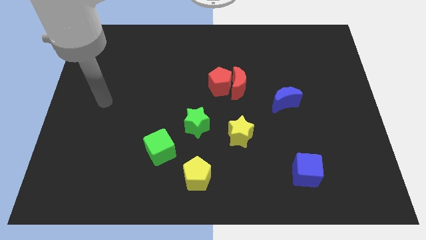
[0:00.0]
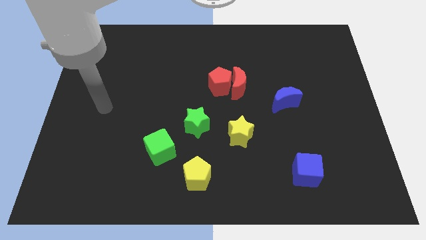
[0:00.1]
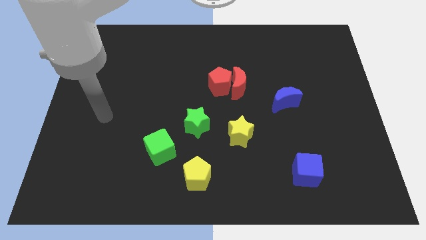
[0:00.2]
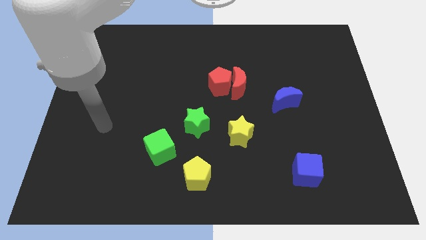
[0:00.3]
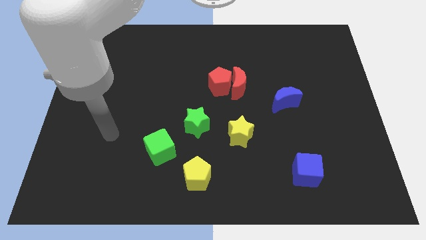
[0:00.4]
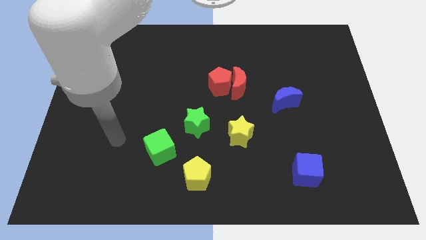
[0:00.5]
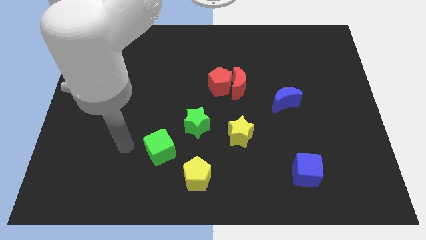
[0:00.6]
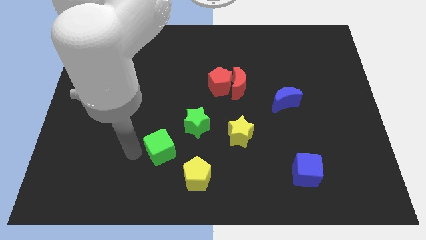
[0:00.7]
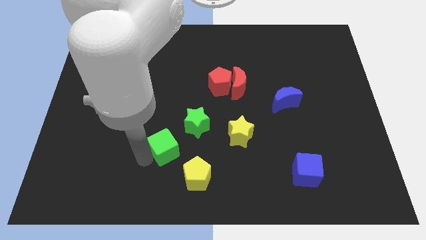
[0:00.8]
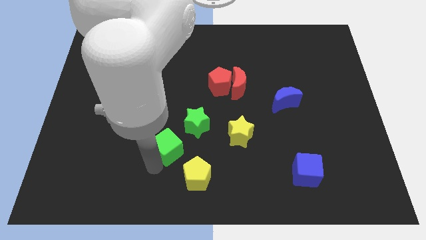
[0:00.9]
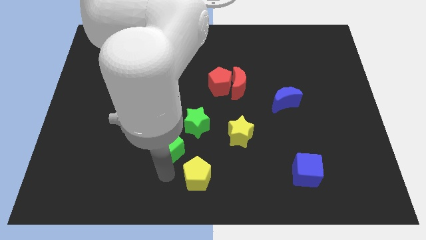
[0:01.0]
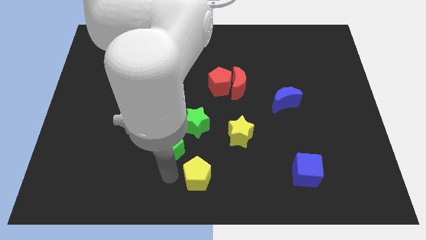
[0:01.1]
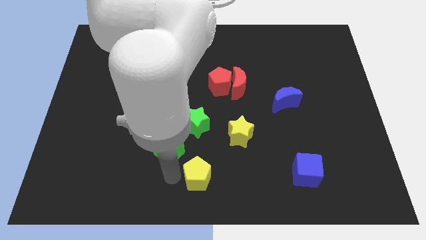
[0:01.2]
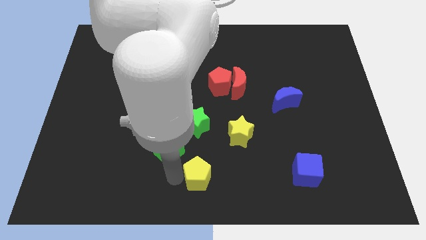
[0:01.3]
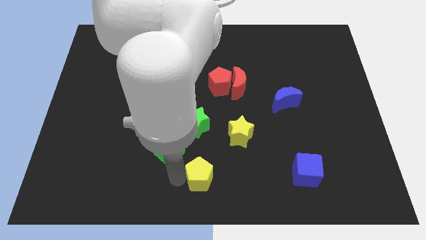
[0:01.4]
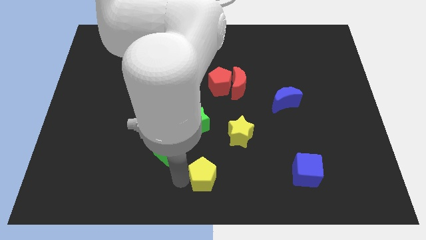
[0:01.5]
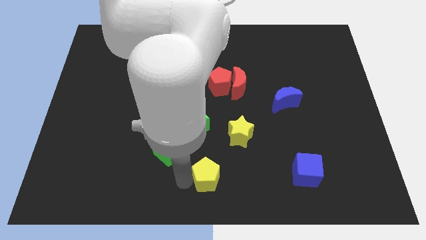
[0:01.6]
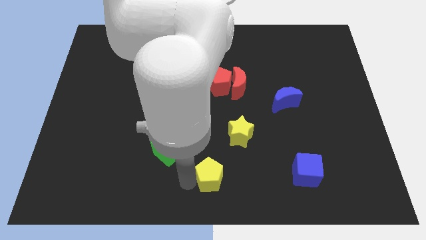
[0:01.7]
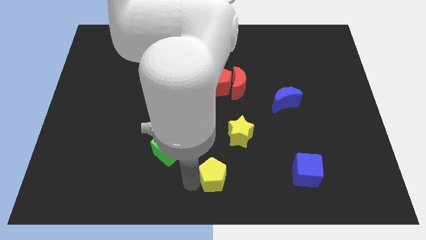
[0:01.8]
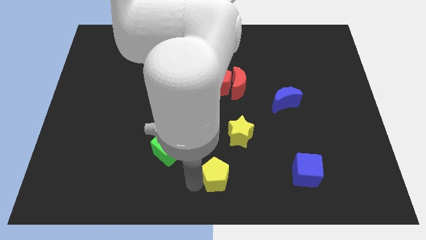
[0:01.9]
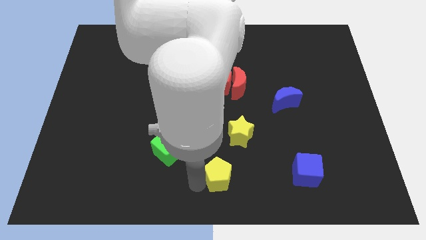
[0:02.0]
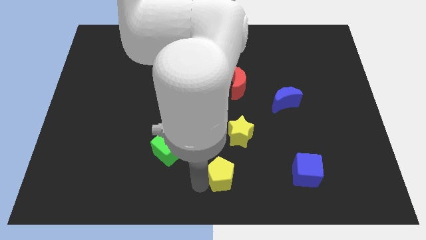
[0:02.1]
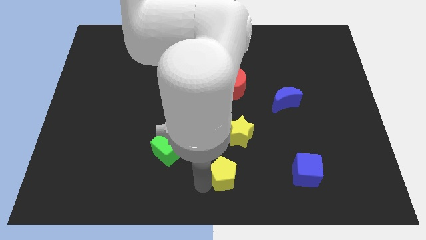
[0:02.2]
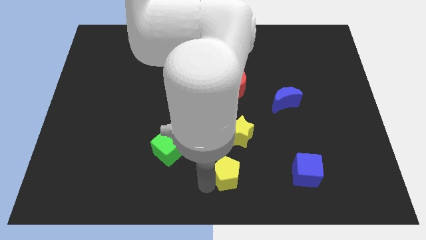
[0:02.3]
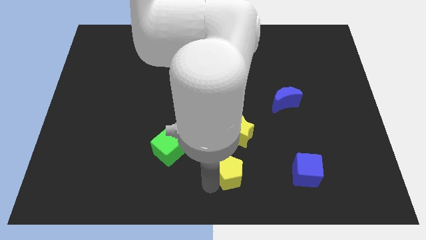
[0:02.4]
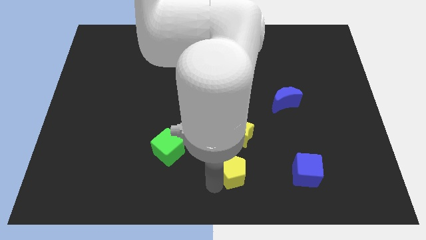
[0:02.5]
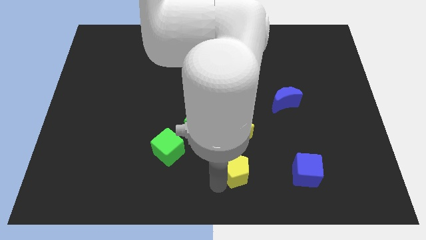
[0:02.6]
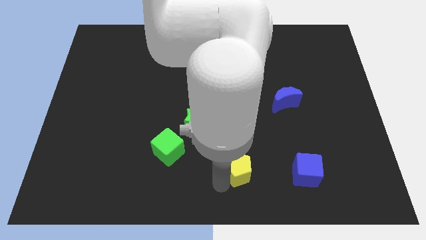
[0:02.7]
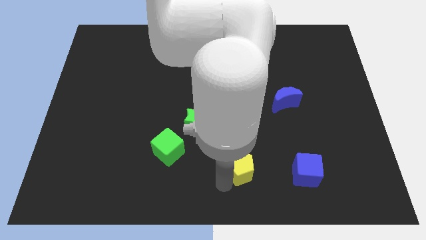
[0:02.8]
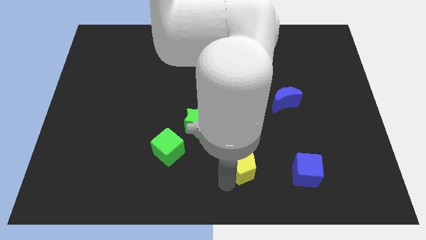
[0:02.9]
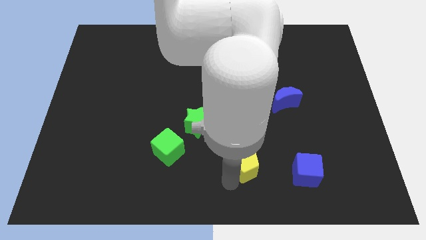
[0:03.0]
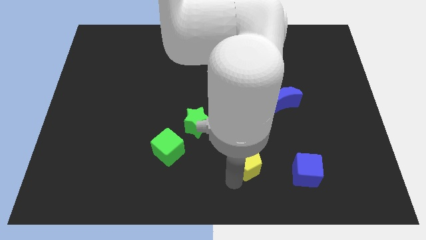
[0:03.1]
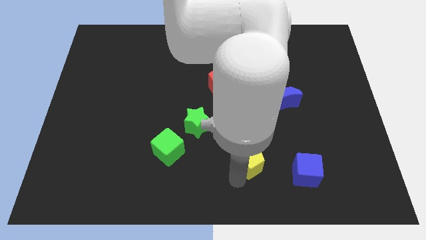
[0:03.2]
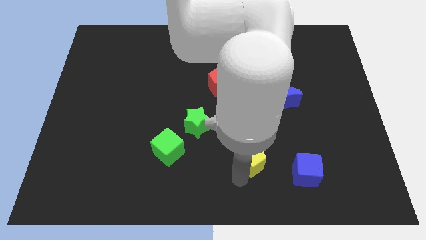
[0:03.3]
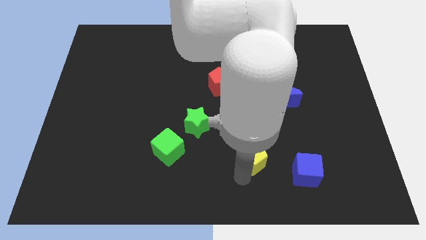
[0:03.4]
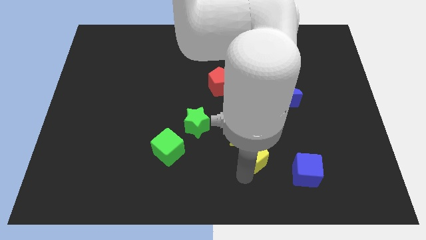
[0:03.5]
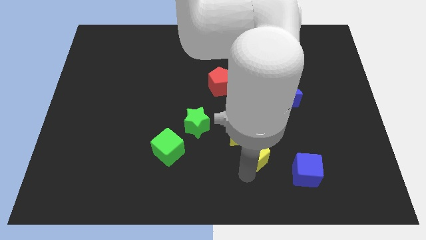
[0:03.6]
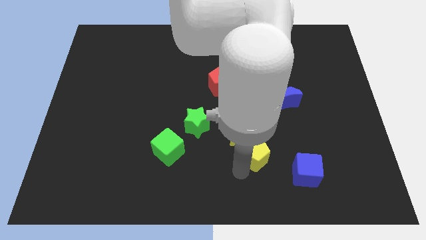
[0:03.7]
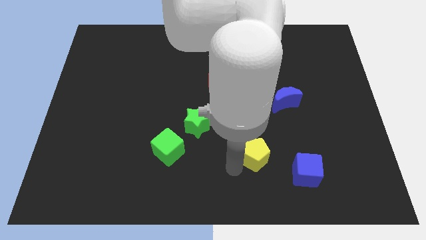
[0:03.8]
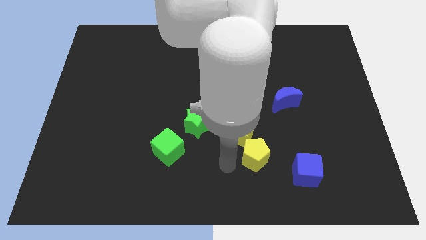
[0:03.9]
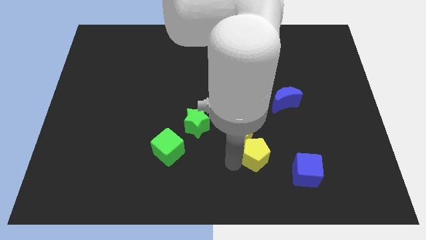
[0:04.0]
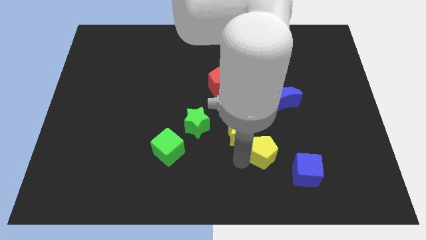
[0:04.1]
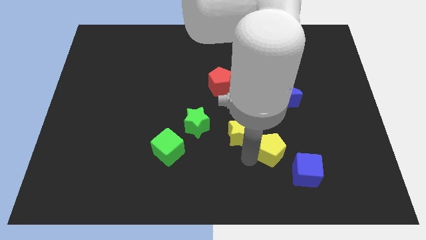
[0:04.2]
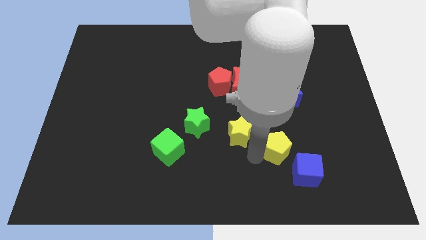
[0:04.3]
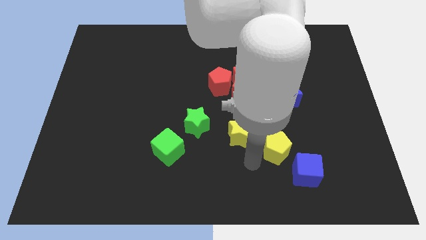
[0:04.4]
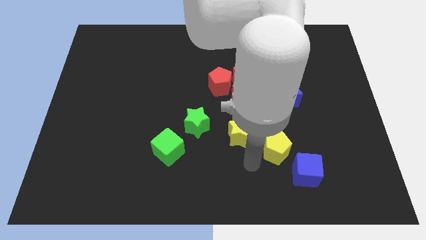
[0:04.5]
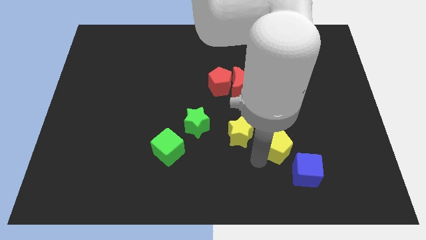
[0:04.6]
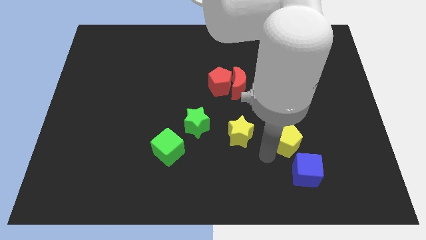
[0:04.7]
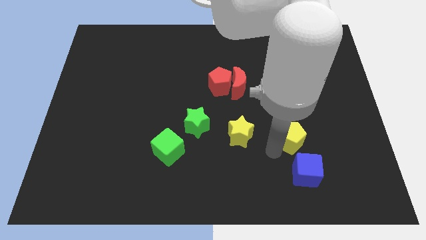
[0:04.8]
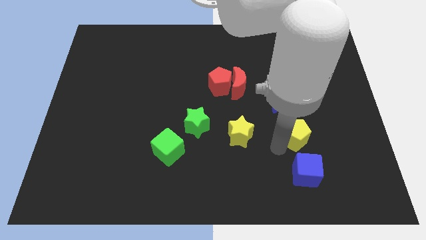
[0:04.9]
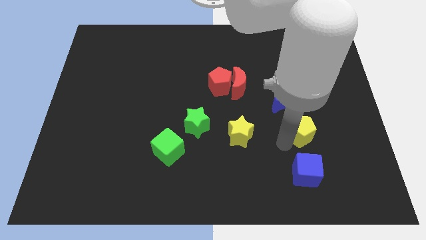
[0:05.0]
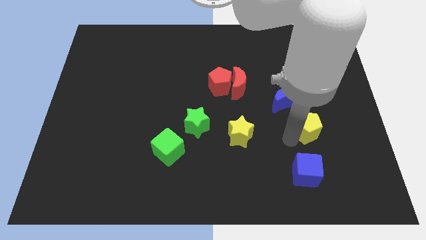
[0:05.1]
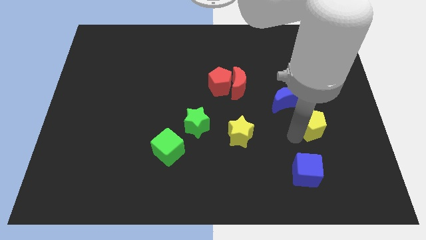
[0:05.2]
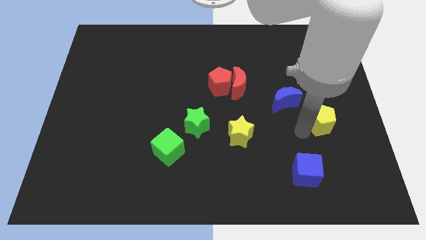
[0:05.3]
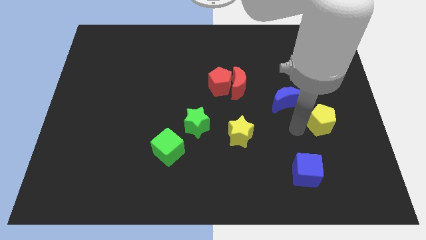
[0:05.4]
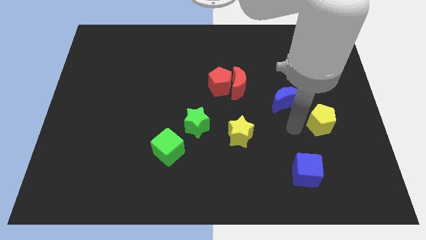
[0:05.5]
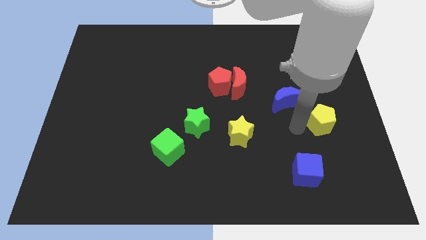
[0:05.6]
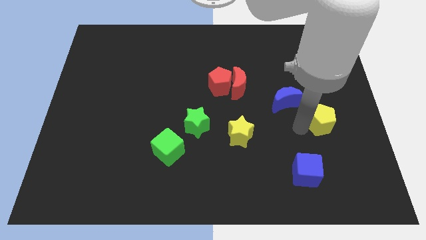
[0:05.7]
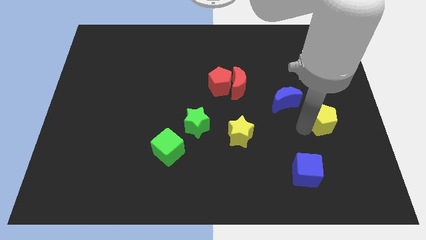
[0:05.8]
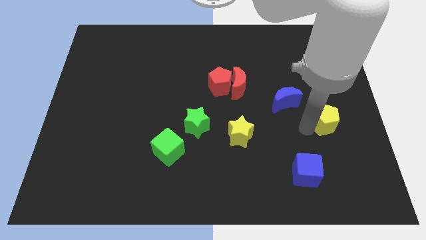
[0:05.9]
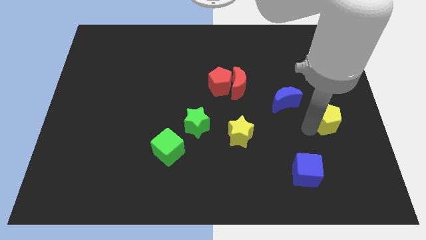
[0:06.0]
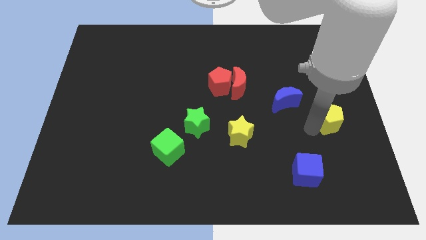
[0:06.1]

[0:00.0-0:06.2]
move the yellow pentagon to the right side

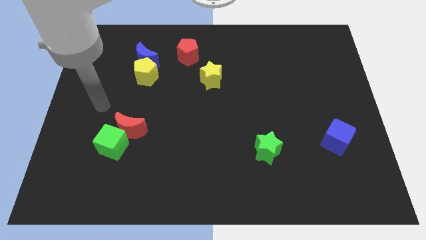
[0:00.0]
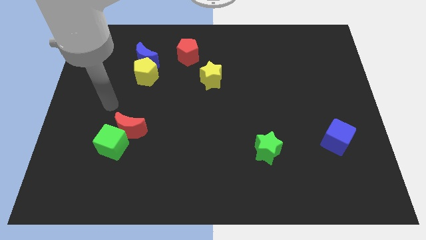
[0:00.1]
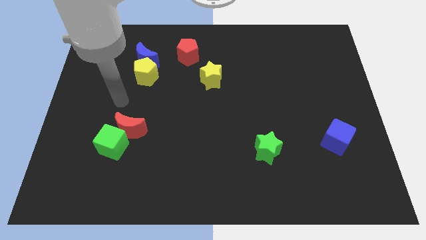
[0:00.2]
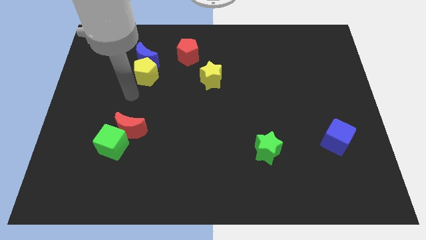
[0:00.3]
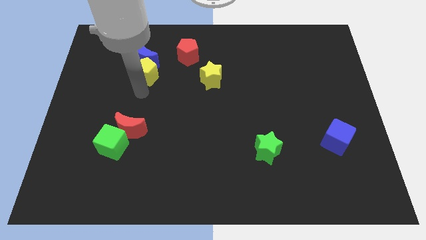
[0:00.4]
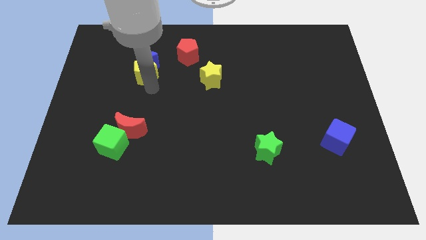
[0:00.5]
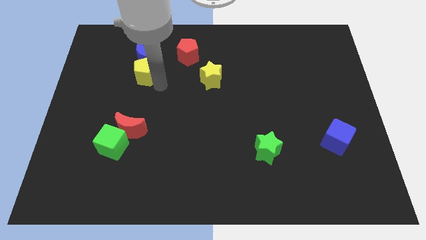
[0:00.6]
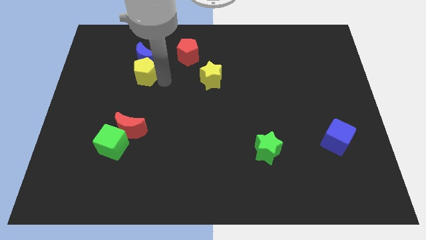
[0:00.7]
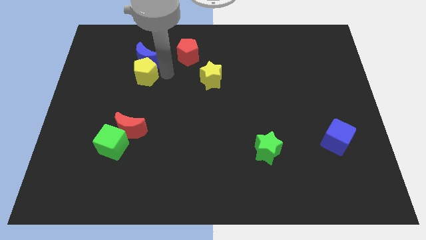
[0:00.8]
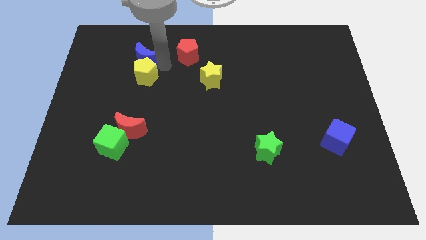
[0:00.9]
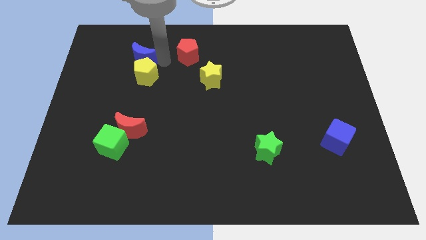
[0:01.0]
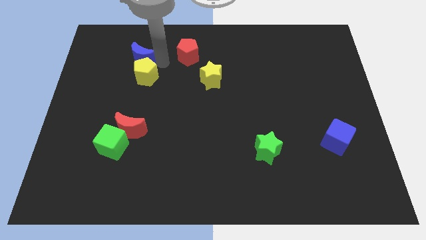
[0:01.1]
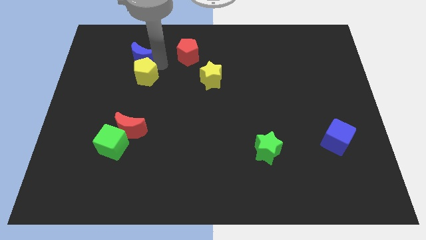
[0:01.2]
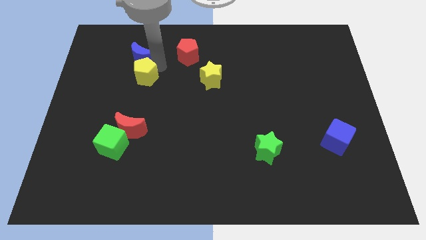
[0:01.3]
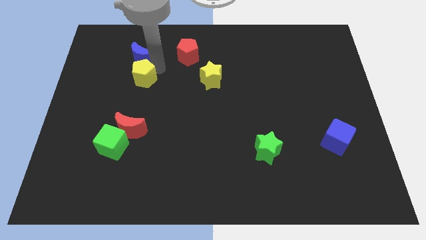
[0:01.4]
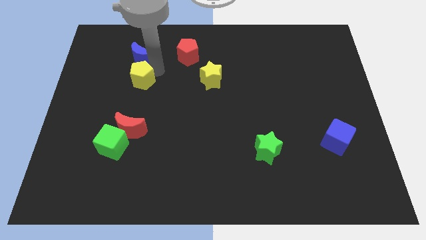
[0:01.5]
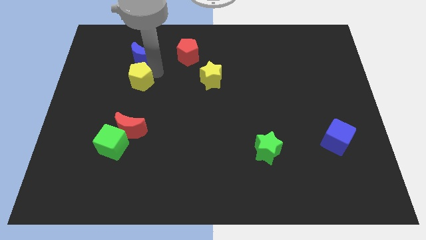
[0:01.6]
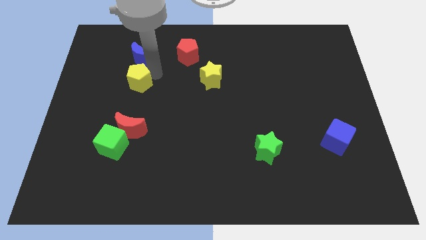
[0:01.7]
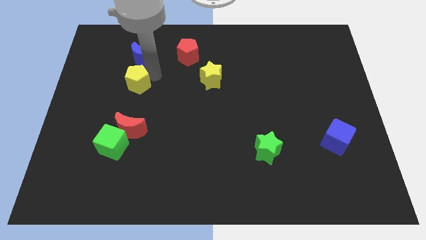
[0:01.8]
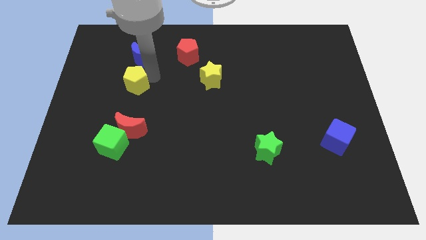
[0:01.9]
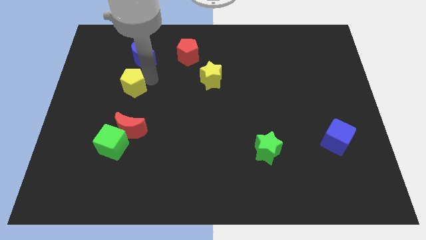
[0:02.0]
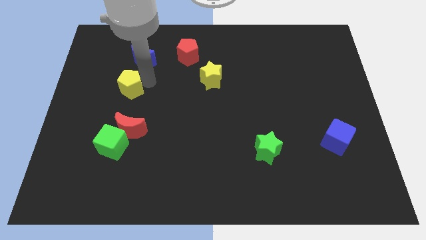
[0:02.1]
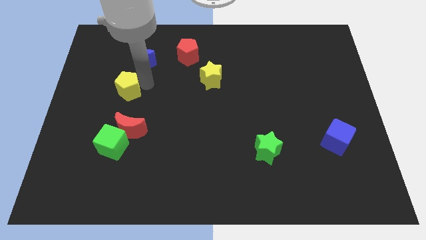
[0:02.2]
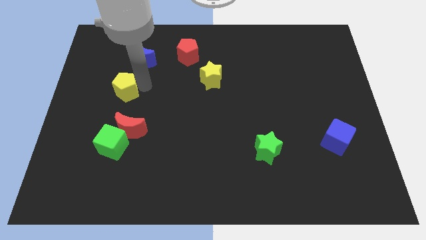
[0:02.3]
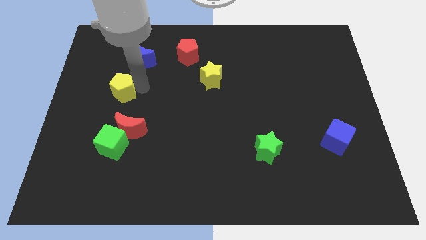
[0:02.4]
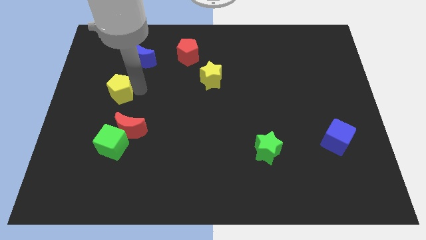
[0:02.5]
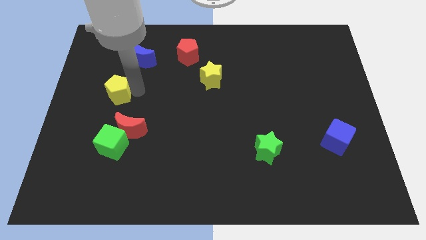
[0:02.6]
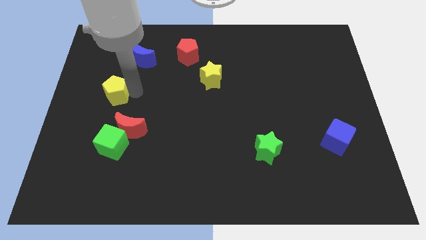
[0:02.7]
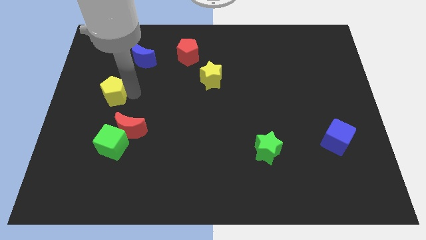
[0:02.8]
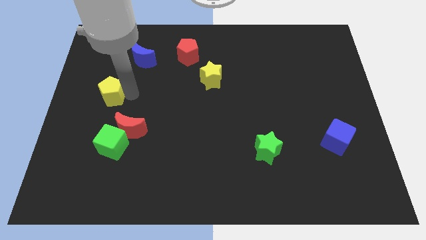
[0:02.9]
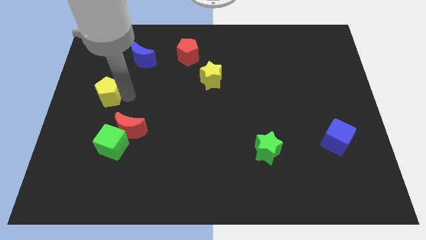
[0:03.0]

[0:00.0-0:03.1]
push the yellow pentagon to the center left
